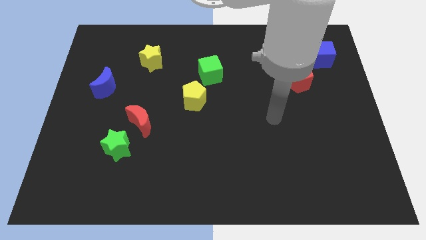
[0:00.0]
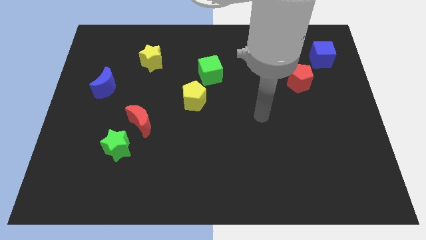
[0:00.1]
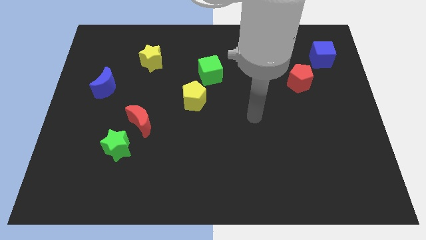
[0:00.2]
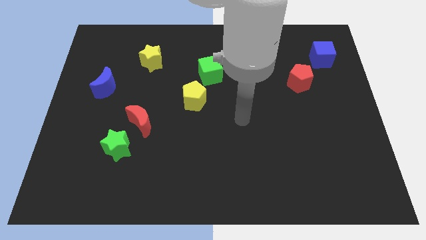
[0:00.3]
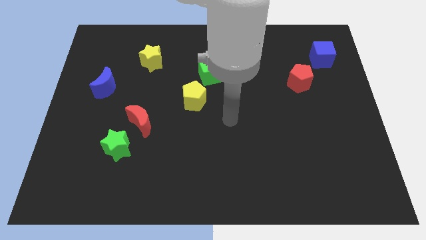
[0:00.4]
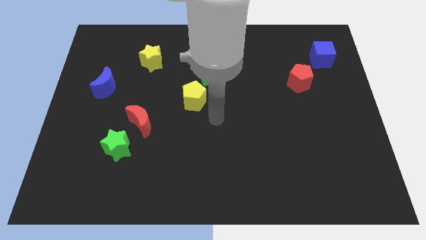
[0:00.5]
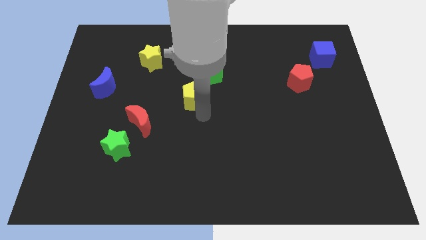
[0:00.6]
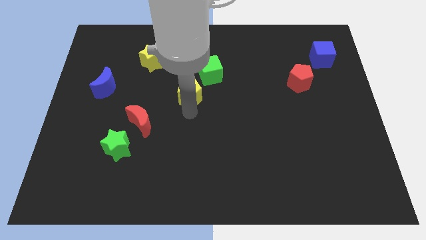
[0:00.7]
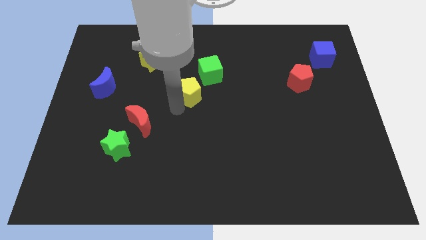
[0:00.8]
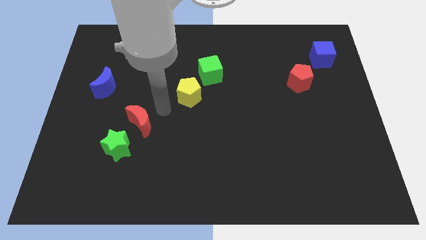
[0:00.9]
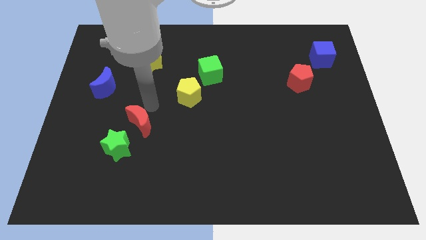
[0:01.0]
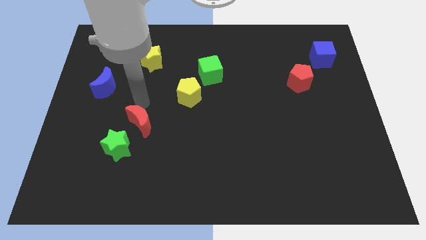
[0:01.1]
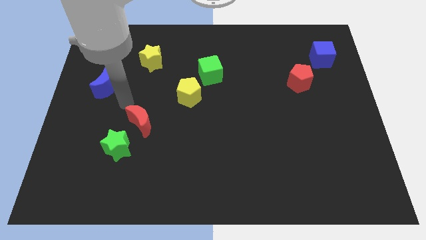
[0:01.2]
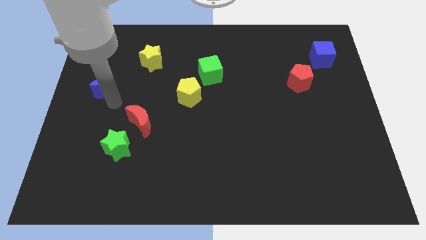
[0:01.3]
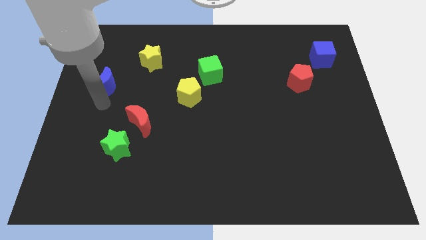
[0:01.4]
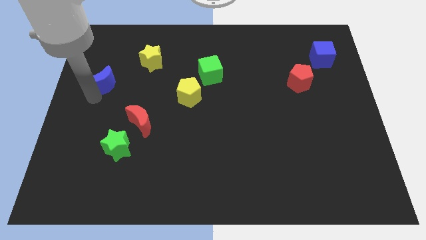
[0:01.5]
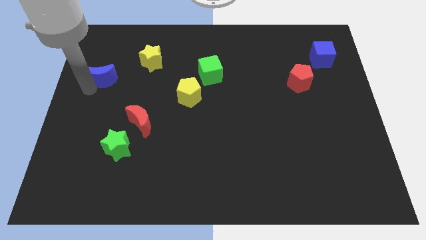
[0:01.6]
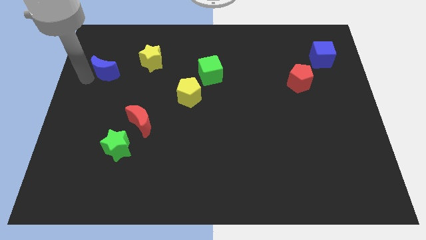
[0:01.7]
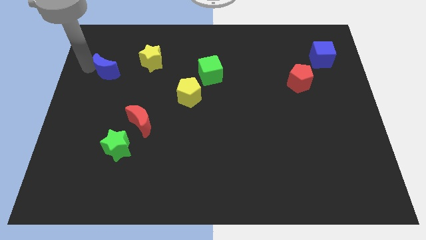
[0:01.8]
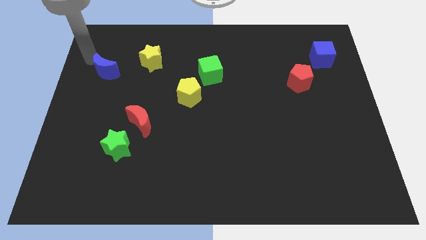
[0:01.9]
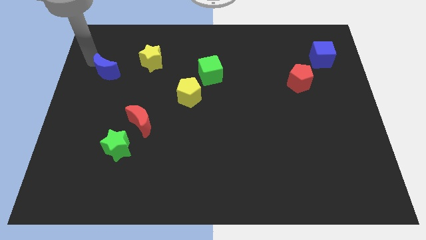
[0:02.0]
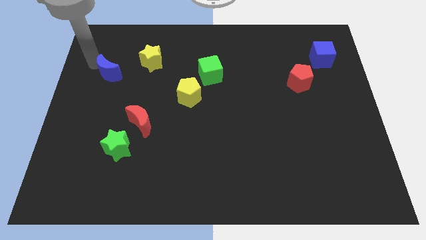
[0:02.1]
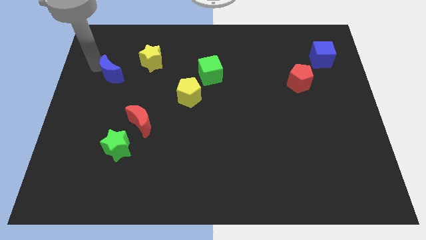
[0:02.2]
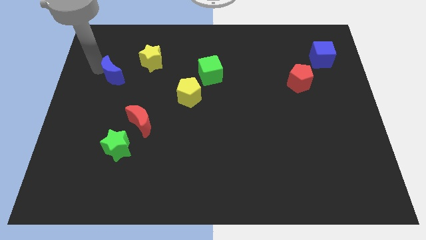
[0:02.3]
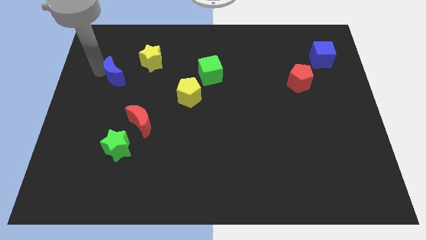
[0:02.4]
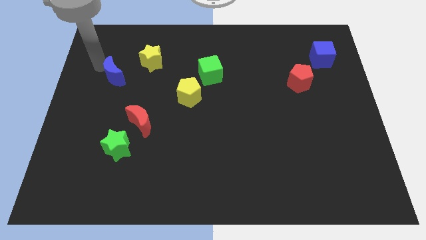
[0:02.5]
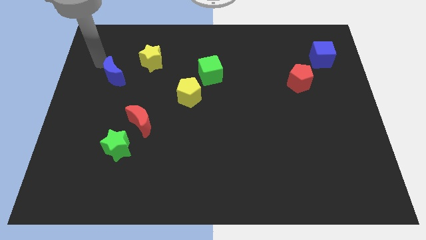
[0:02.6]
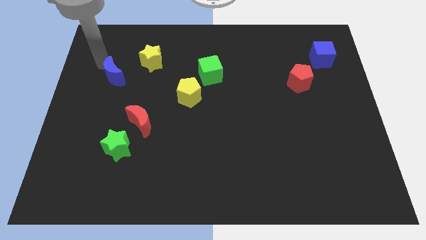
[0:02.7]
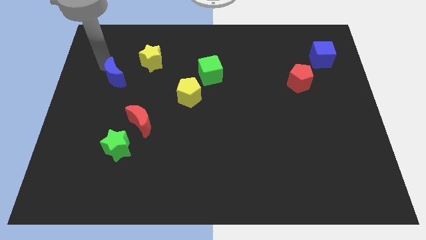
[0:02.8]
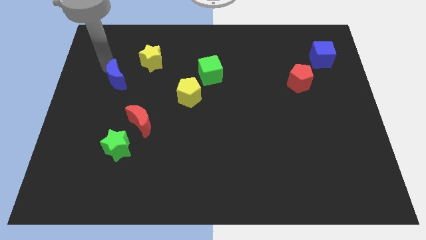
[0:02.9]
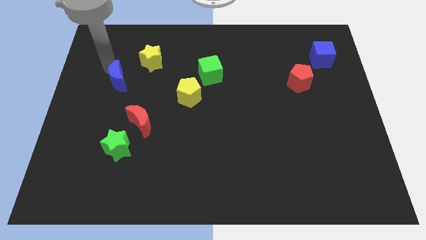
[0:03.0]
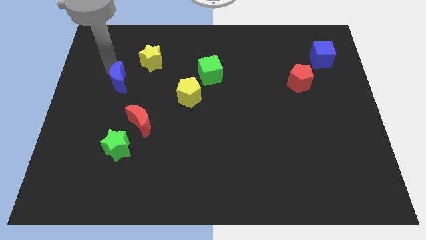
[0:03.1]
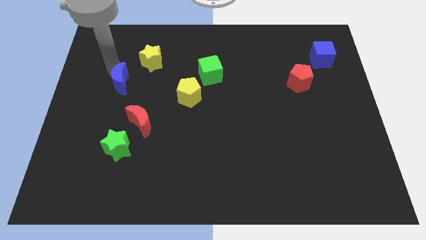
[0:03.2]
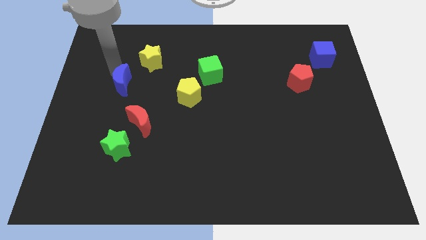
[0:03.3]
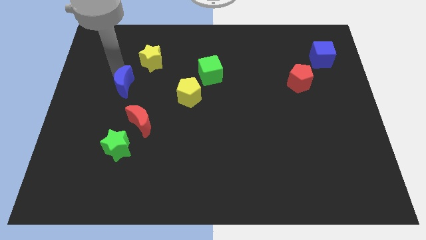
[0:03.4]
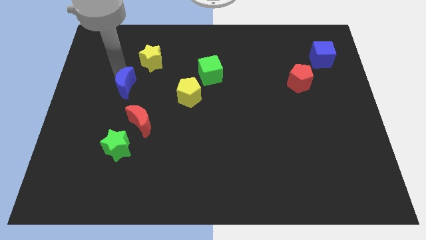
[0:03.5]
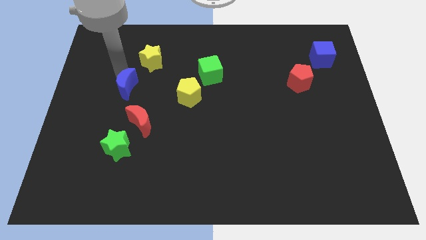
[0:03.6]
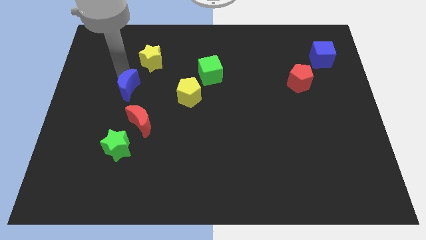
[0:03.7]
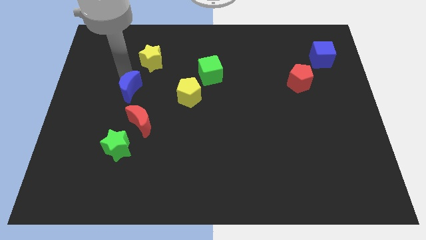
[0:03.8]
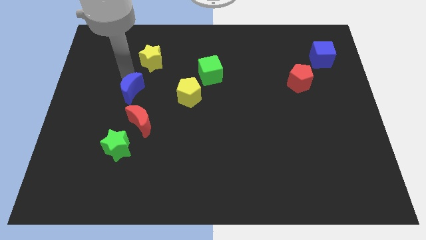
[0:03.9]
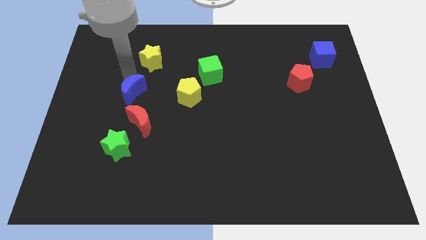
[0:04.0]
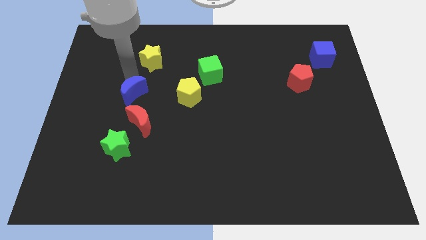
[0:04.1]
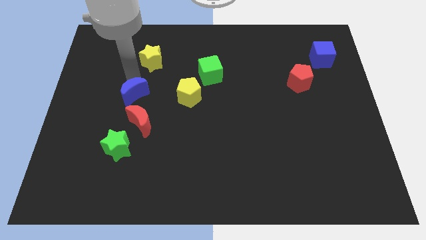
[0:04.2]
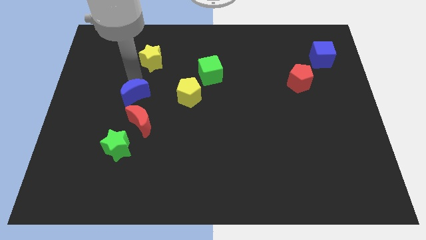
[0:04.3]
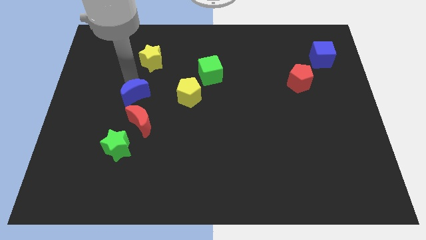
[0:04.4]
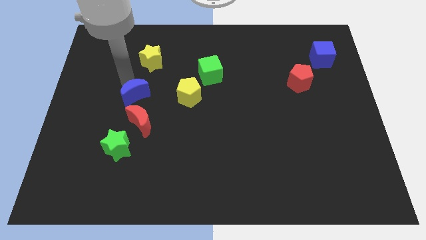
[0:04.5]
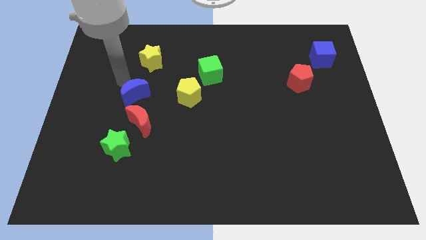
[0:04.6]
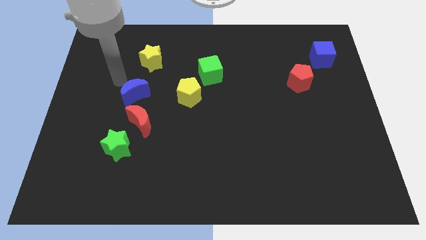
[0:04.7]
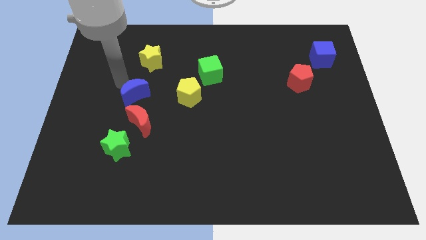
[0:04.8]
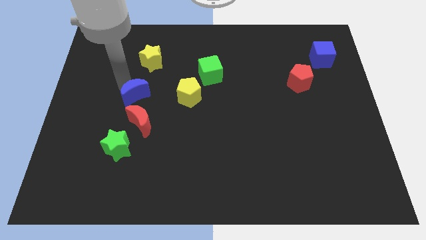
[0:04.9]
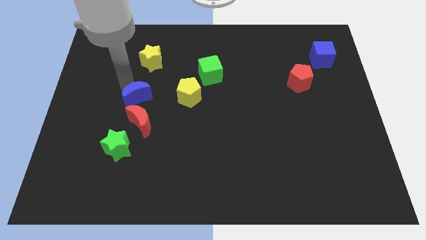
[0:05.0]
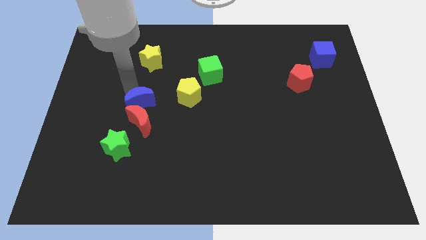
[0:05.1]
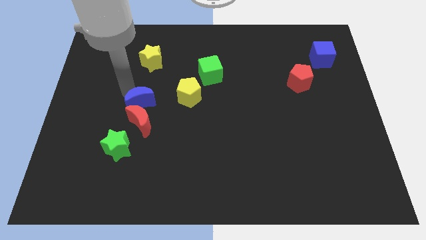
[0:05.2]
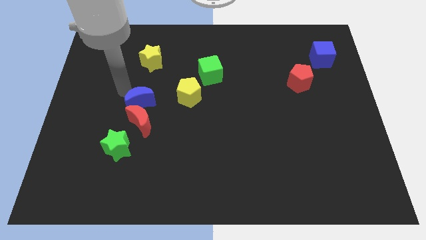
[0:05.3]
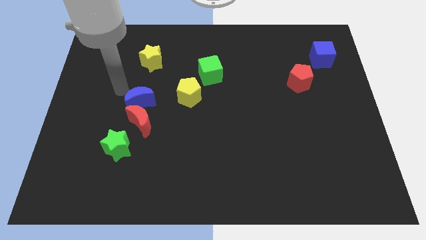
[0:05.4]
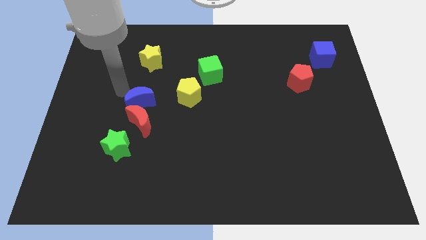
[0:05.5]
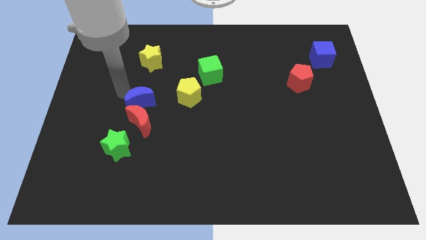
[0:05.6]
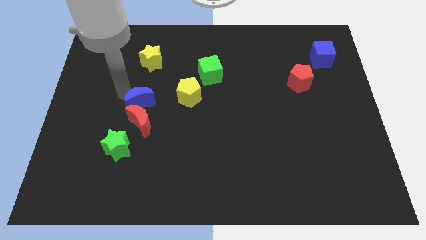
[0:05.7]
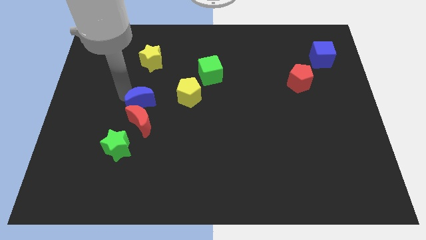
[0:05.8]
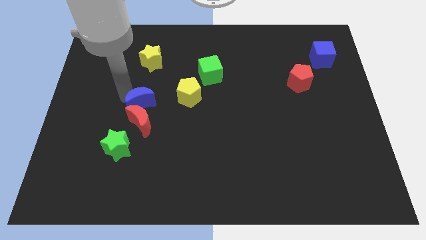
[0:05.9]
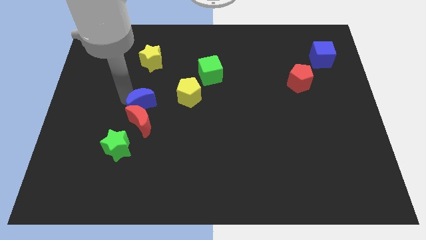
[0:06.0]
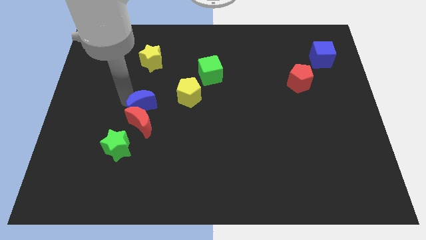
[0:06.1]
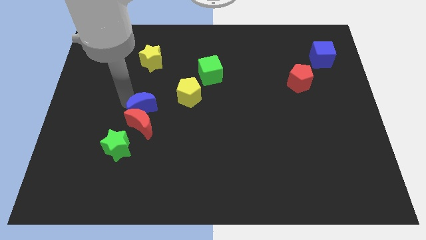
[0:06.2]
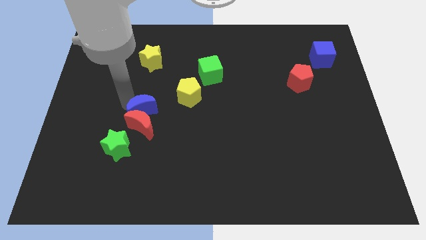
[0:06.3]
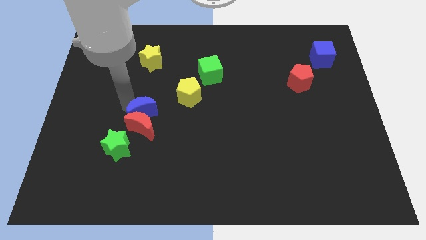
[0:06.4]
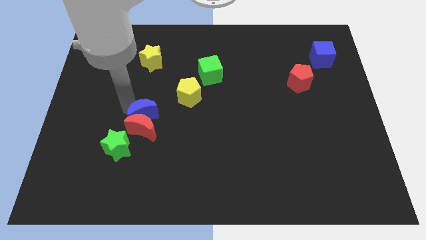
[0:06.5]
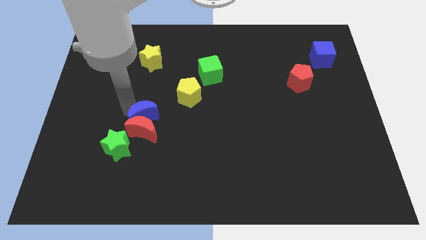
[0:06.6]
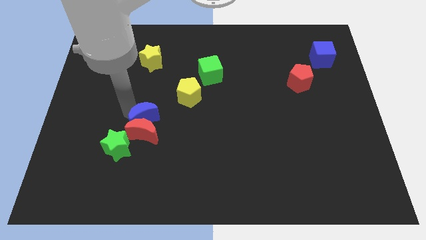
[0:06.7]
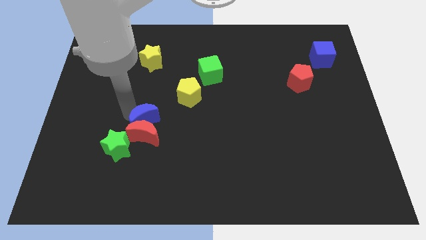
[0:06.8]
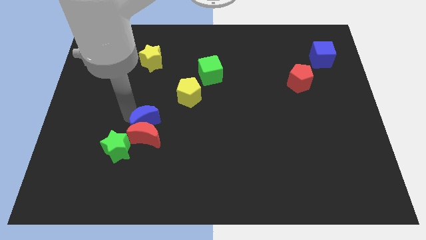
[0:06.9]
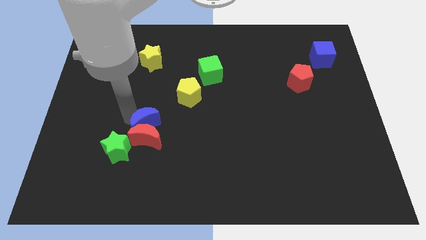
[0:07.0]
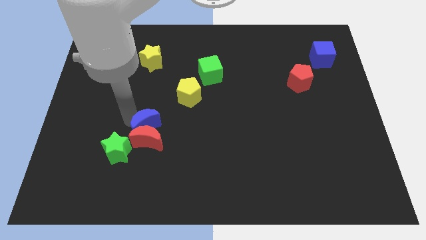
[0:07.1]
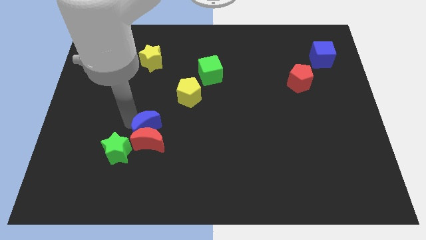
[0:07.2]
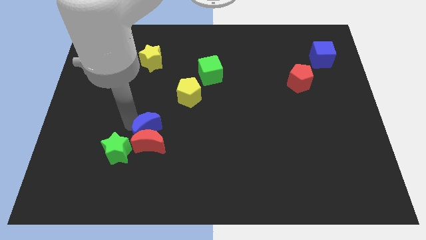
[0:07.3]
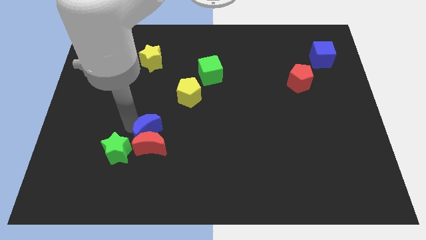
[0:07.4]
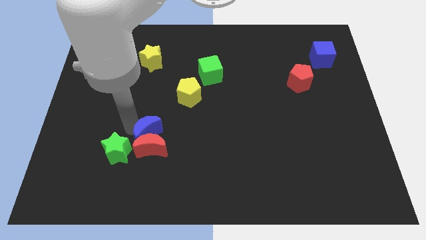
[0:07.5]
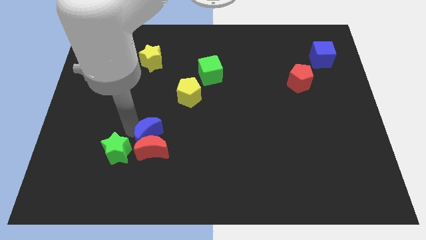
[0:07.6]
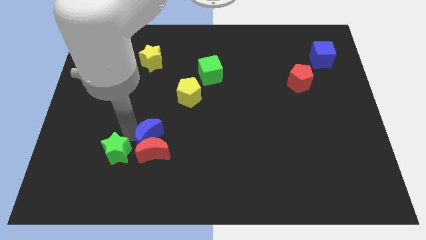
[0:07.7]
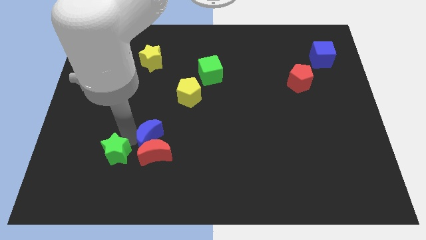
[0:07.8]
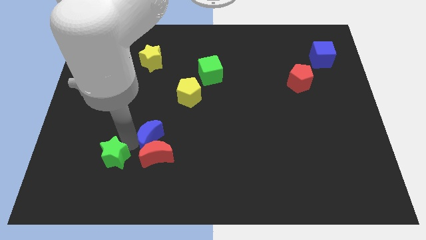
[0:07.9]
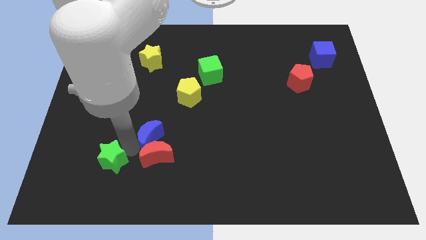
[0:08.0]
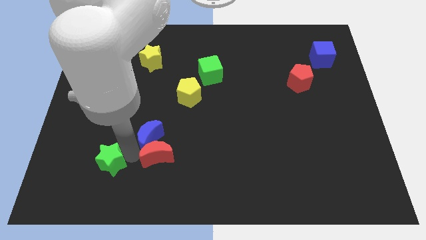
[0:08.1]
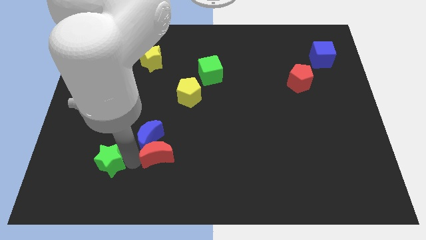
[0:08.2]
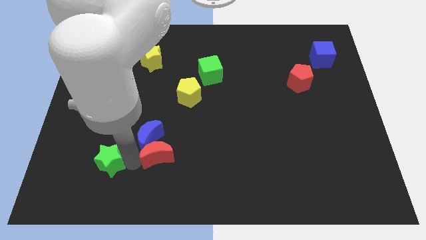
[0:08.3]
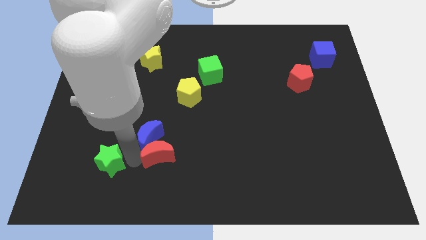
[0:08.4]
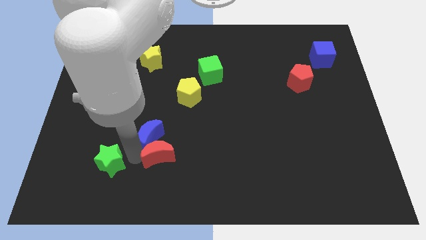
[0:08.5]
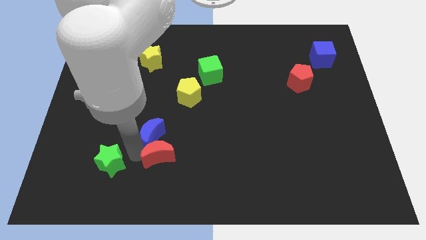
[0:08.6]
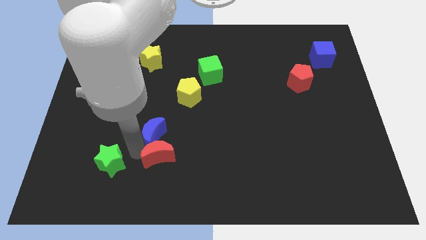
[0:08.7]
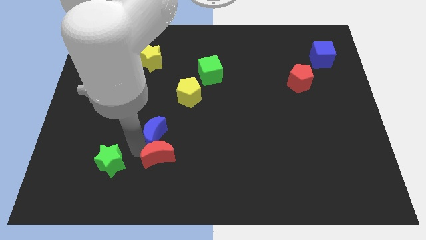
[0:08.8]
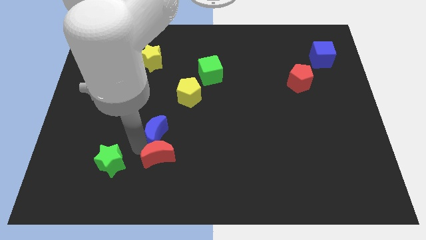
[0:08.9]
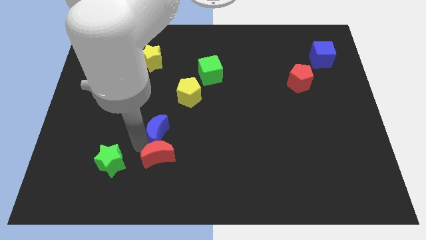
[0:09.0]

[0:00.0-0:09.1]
push the blue moon downwards and then right
